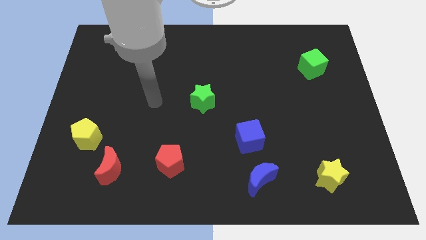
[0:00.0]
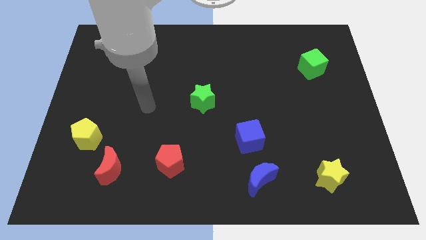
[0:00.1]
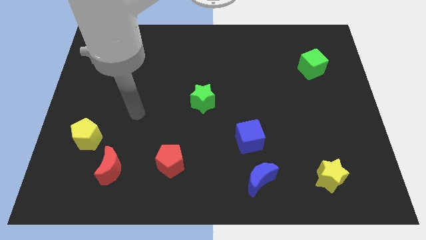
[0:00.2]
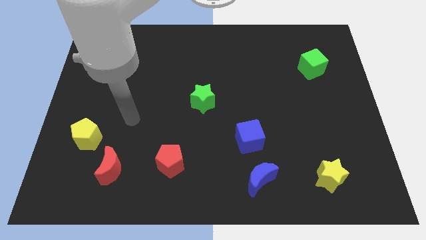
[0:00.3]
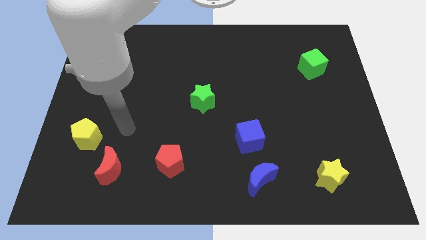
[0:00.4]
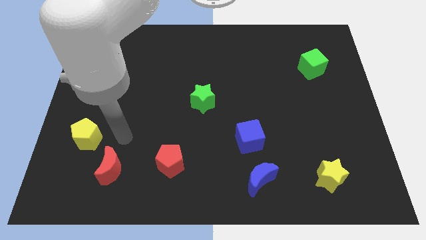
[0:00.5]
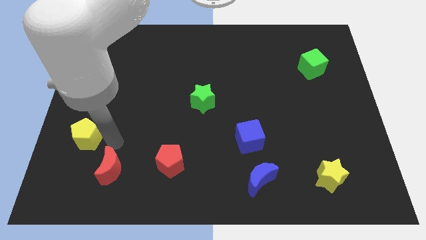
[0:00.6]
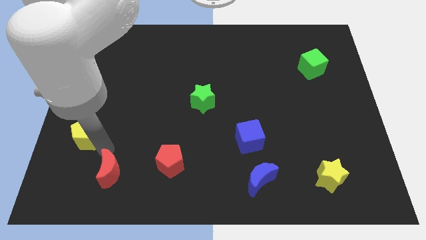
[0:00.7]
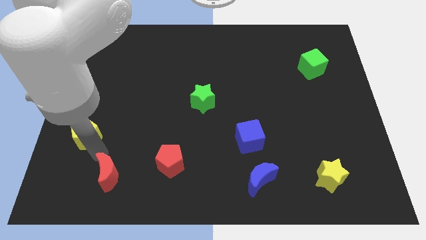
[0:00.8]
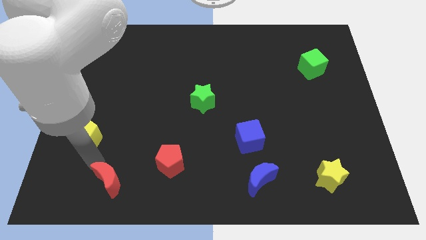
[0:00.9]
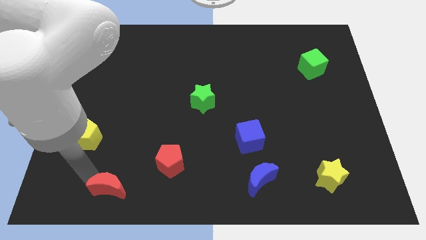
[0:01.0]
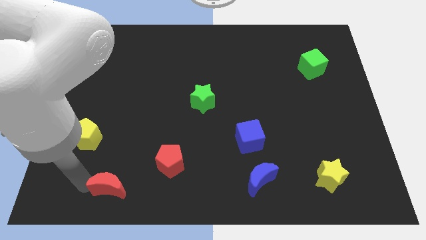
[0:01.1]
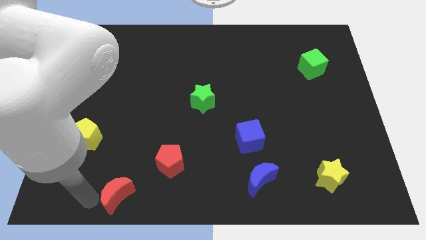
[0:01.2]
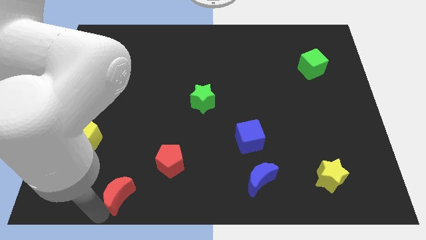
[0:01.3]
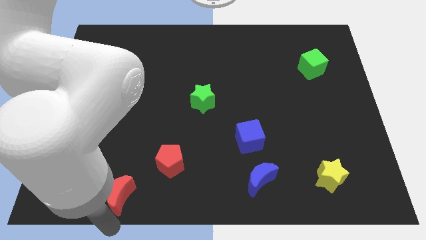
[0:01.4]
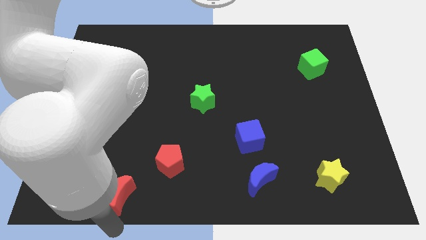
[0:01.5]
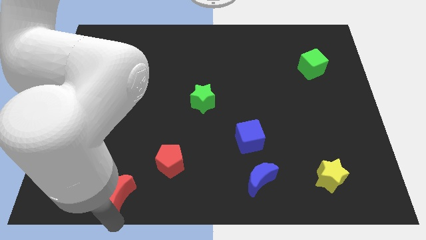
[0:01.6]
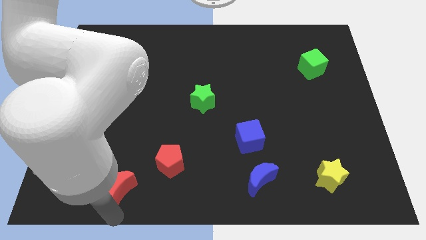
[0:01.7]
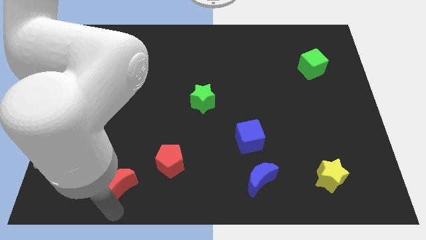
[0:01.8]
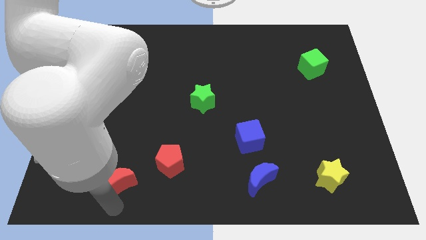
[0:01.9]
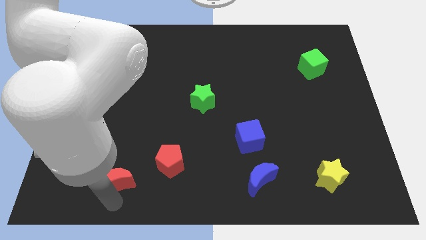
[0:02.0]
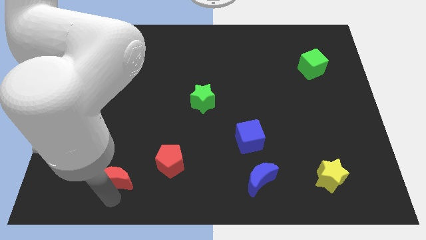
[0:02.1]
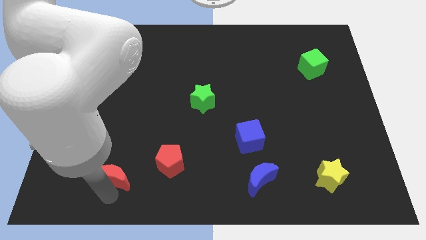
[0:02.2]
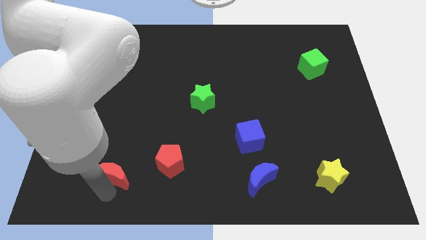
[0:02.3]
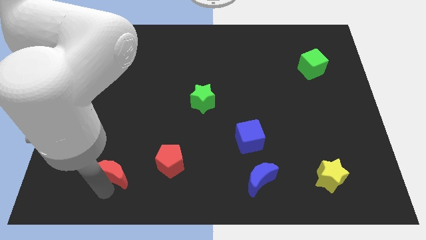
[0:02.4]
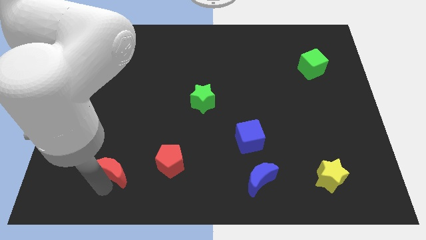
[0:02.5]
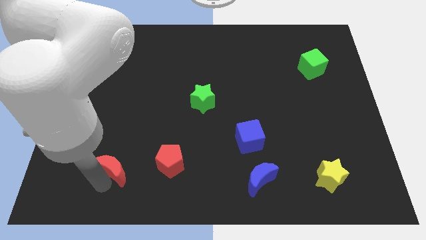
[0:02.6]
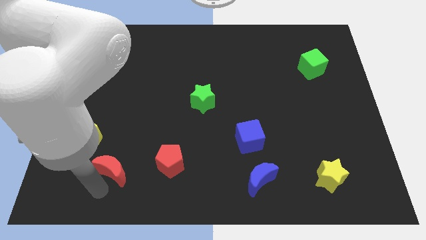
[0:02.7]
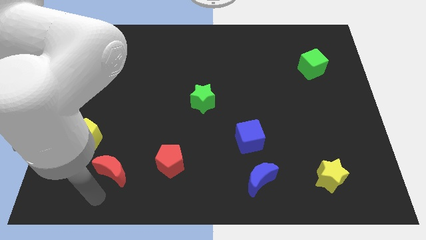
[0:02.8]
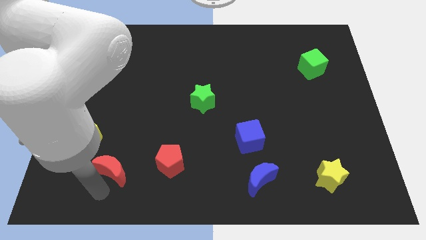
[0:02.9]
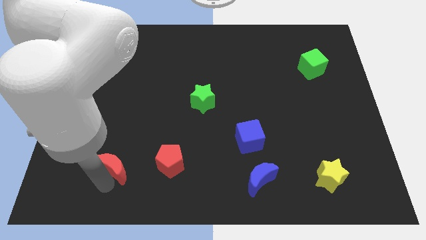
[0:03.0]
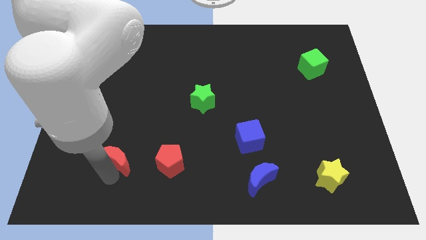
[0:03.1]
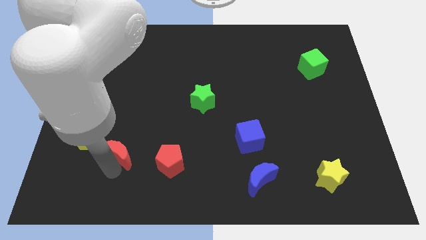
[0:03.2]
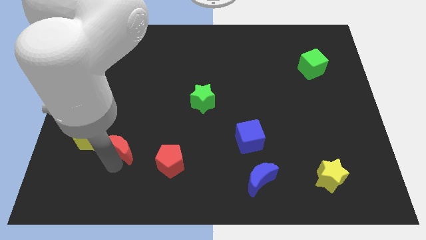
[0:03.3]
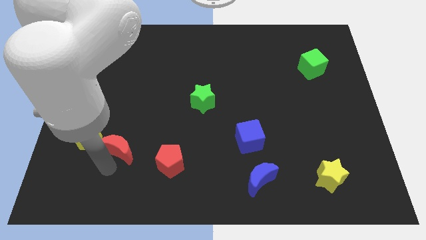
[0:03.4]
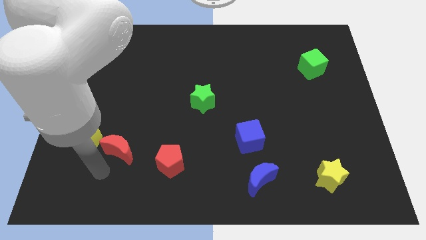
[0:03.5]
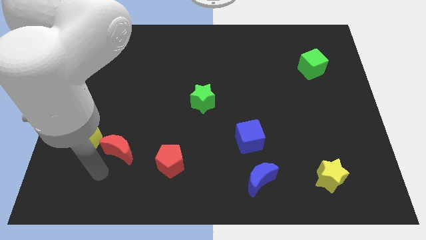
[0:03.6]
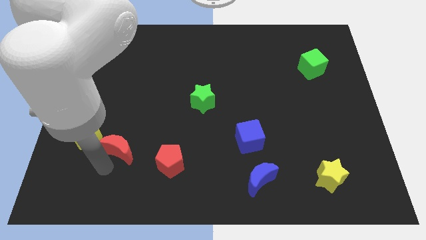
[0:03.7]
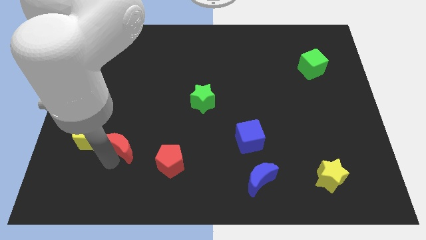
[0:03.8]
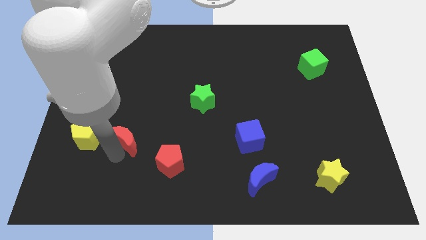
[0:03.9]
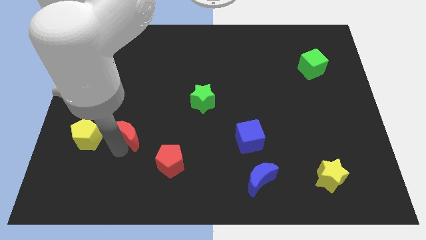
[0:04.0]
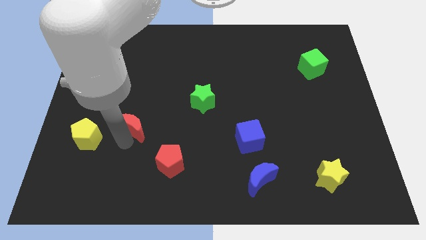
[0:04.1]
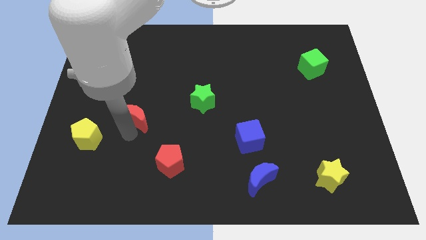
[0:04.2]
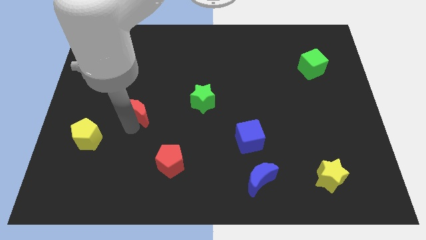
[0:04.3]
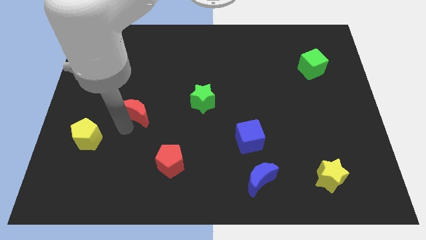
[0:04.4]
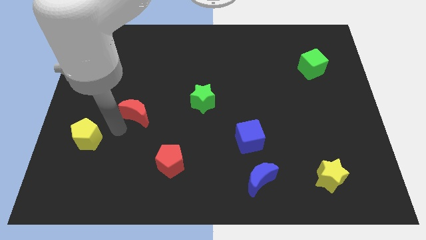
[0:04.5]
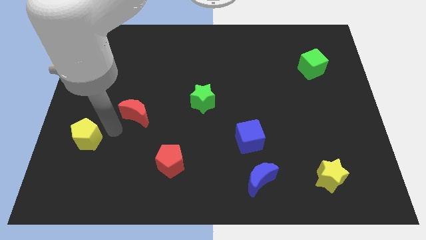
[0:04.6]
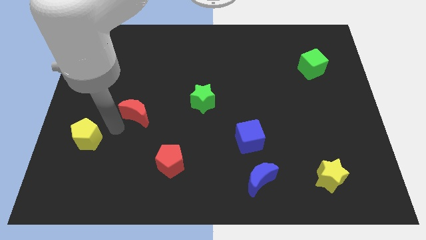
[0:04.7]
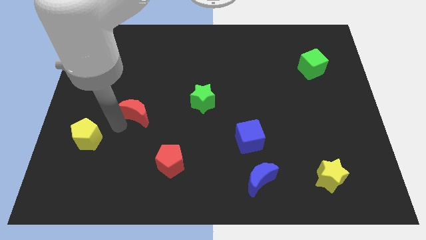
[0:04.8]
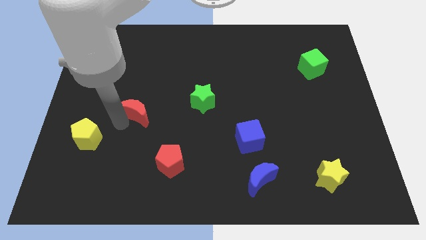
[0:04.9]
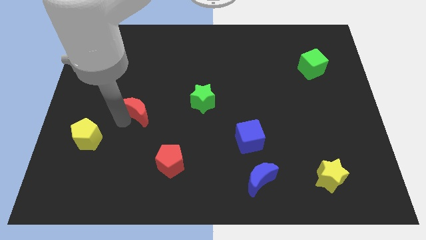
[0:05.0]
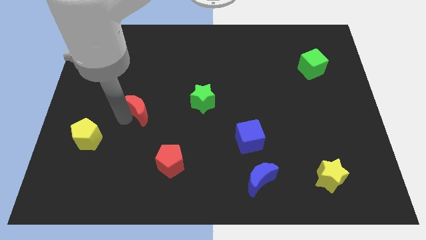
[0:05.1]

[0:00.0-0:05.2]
slide the red moon to the left of the green star

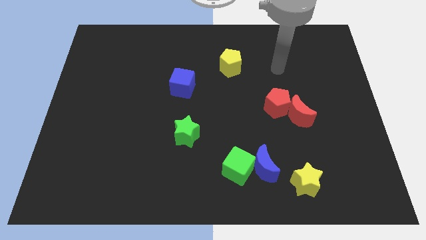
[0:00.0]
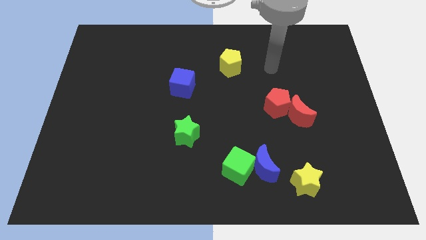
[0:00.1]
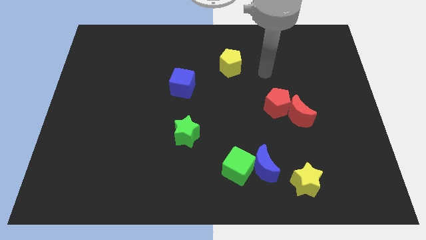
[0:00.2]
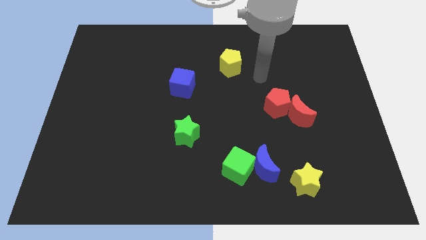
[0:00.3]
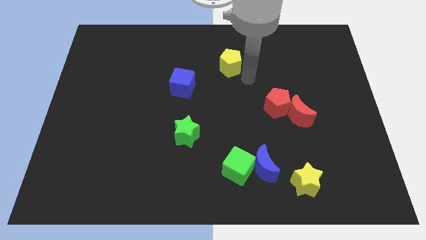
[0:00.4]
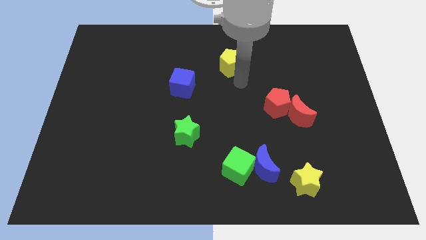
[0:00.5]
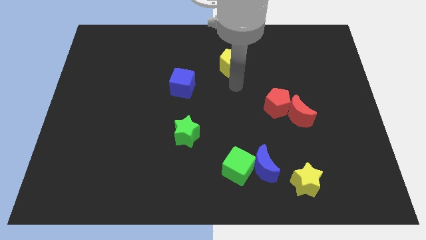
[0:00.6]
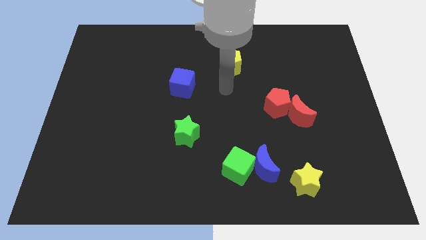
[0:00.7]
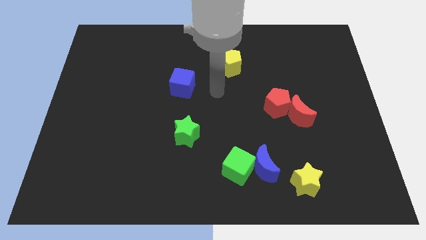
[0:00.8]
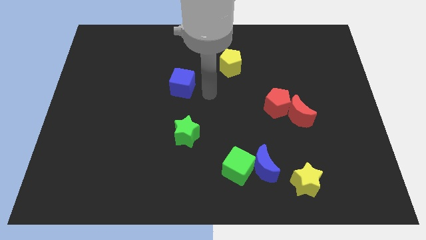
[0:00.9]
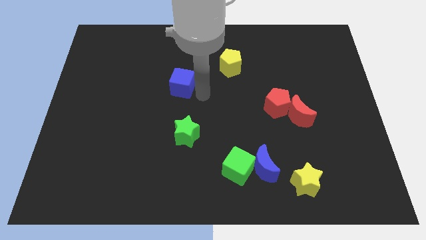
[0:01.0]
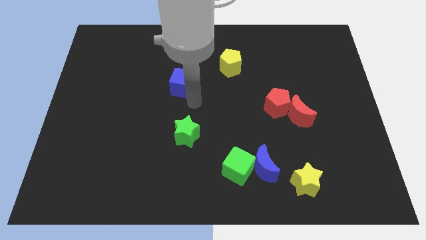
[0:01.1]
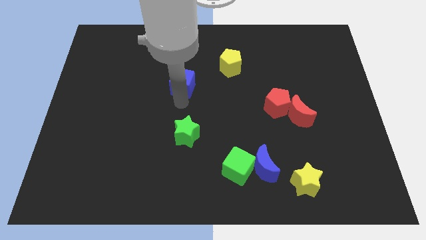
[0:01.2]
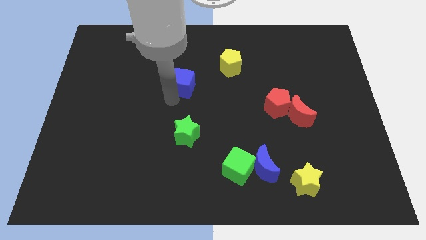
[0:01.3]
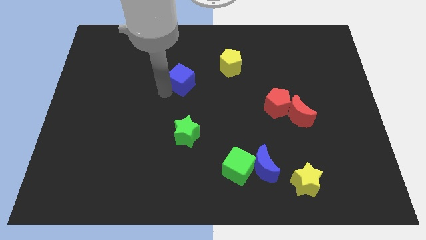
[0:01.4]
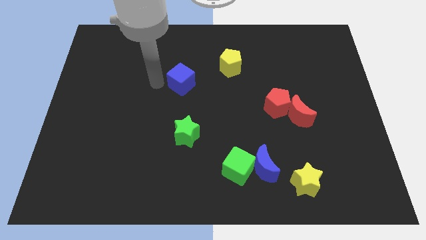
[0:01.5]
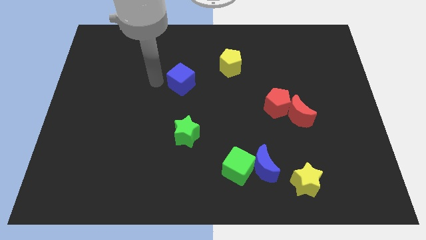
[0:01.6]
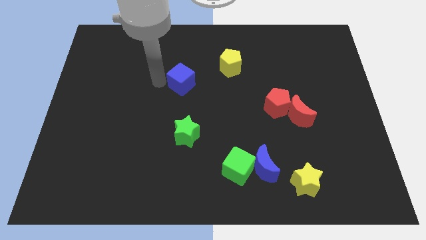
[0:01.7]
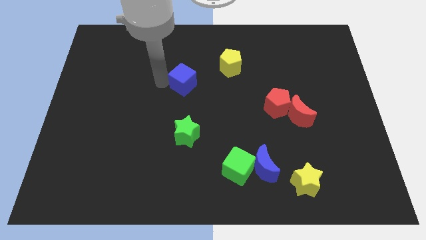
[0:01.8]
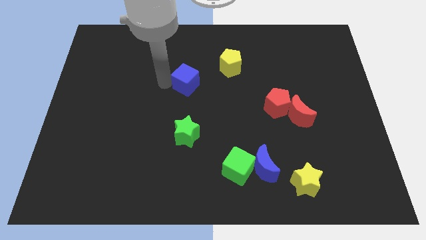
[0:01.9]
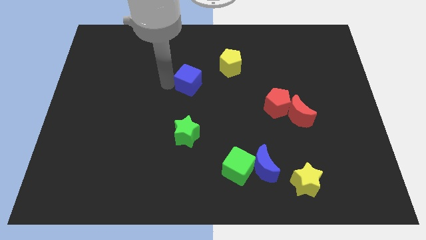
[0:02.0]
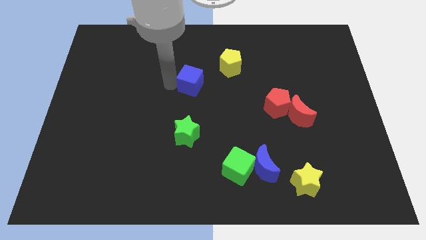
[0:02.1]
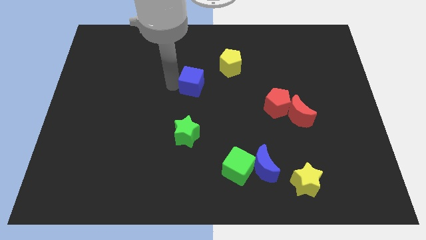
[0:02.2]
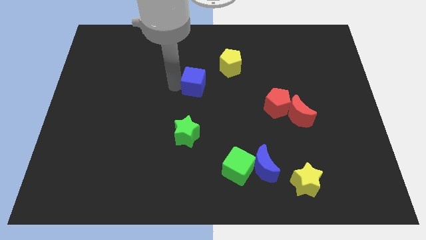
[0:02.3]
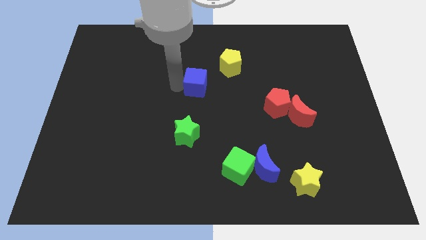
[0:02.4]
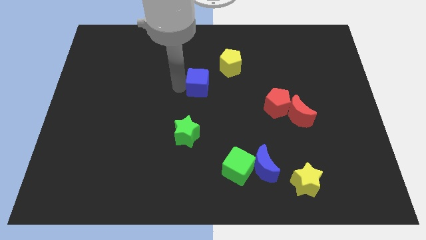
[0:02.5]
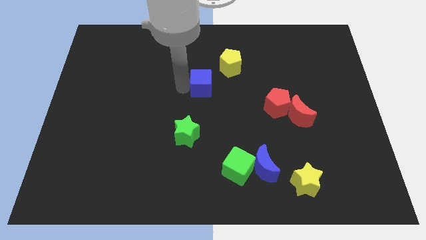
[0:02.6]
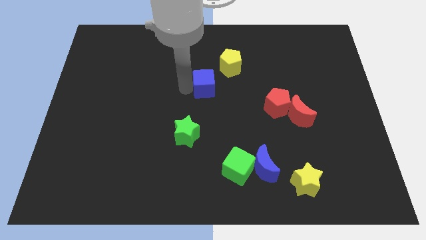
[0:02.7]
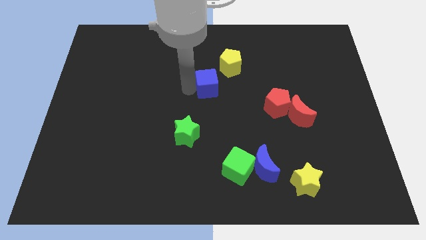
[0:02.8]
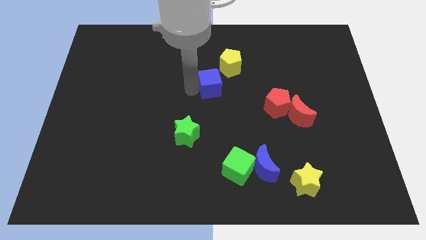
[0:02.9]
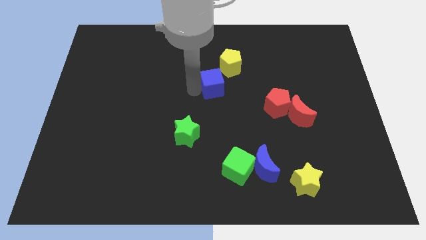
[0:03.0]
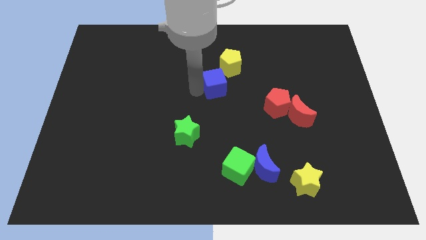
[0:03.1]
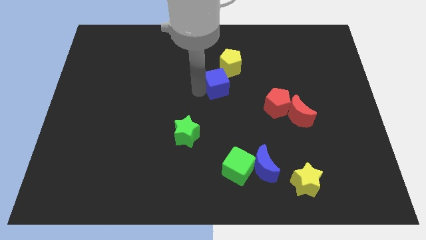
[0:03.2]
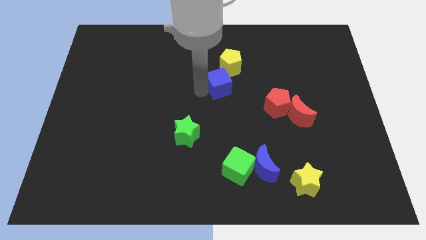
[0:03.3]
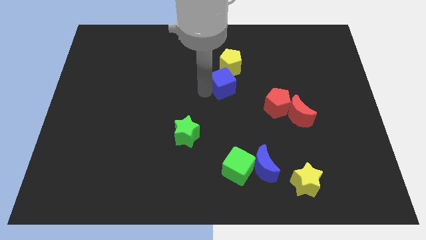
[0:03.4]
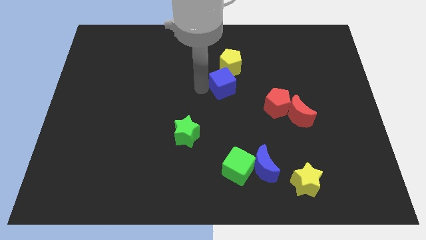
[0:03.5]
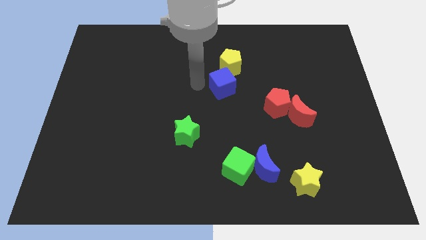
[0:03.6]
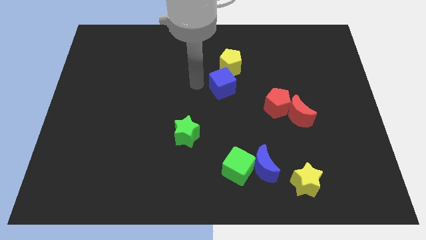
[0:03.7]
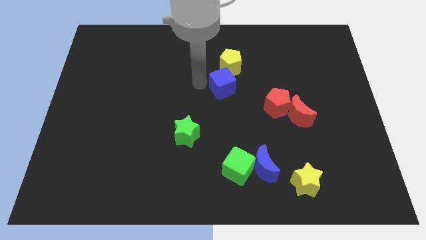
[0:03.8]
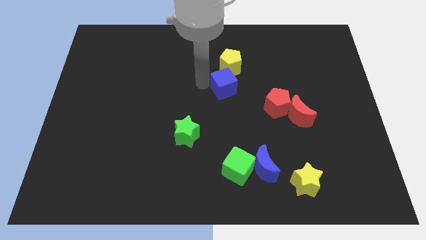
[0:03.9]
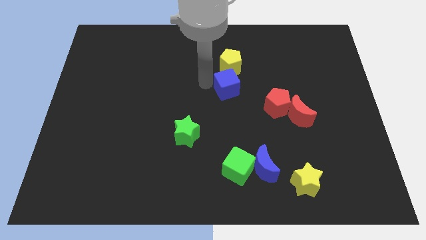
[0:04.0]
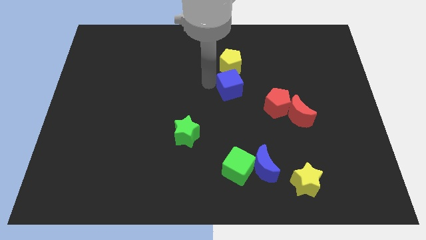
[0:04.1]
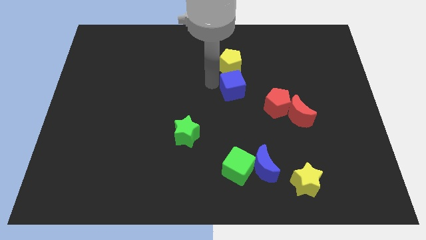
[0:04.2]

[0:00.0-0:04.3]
push the blue cube to the top left side of the red pentagon
